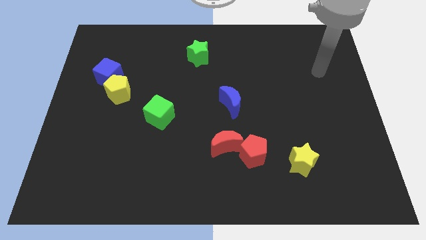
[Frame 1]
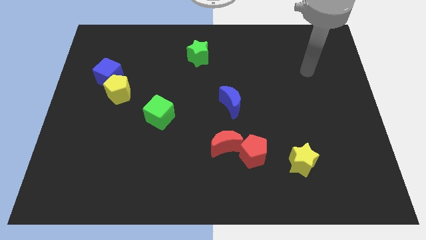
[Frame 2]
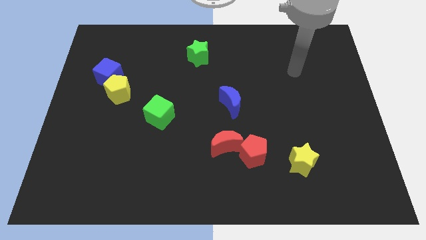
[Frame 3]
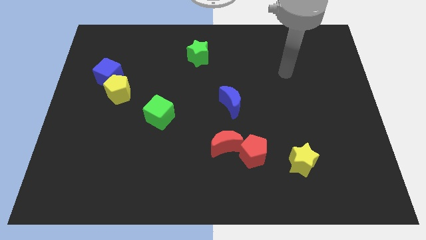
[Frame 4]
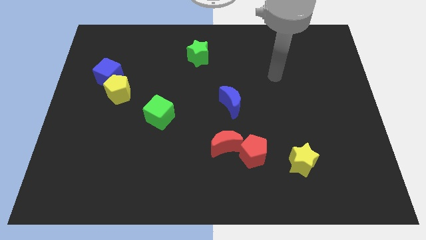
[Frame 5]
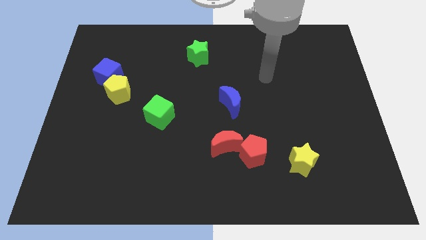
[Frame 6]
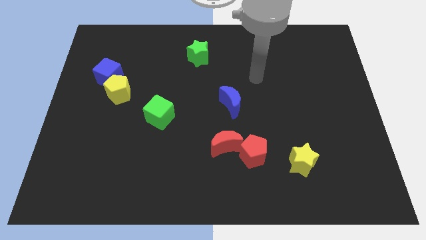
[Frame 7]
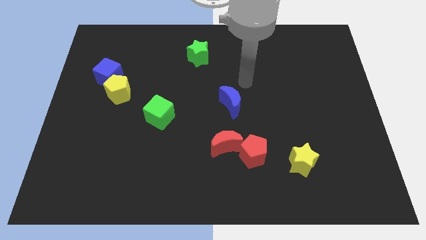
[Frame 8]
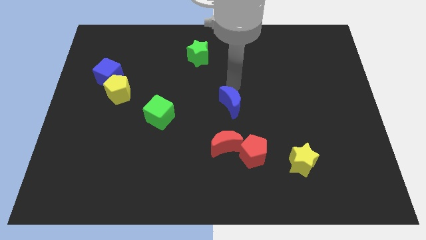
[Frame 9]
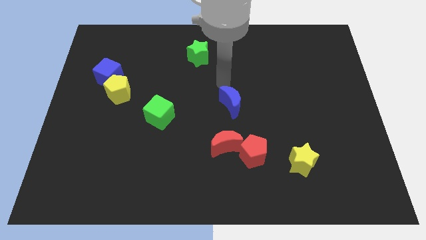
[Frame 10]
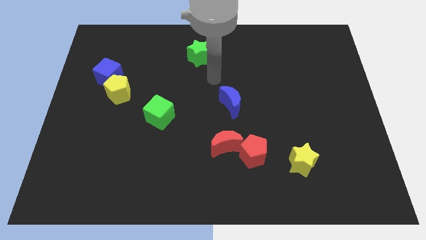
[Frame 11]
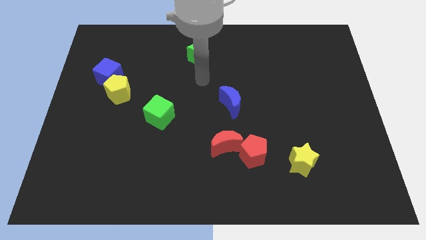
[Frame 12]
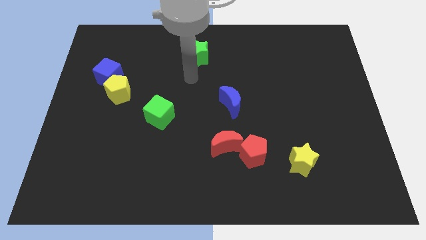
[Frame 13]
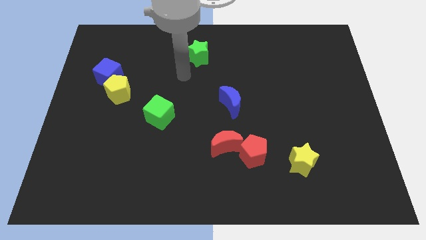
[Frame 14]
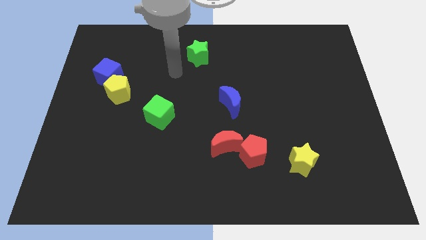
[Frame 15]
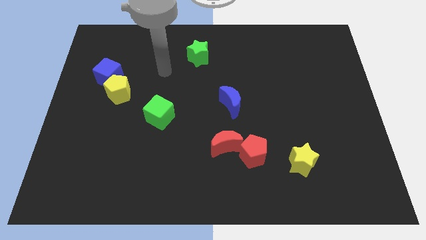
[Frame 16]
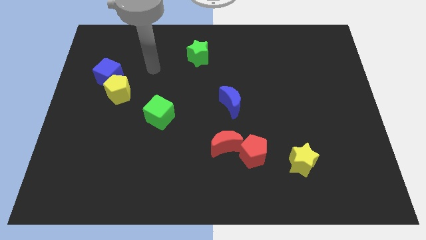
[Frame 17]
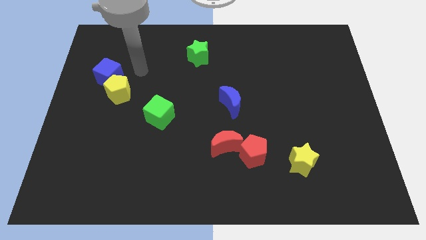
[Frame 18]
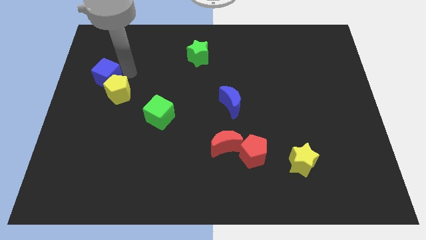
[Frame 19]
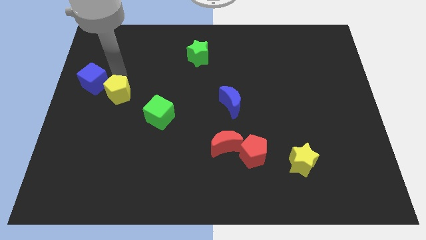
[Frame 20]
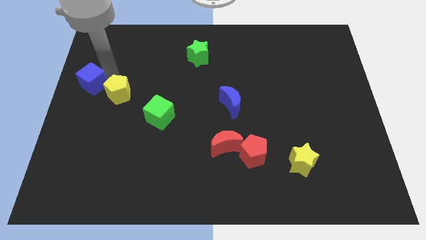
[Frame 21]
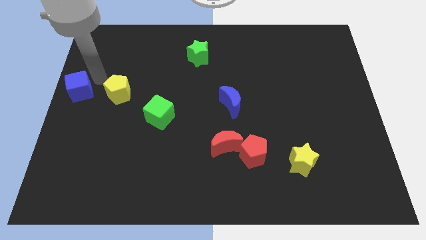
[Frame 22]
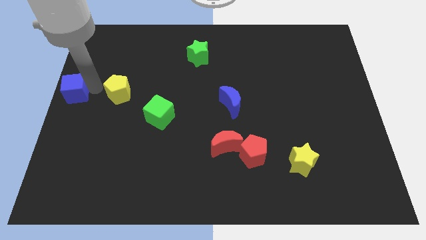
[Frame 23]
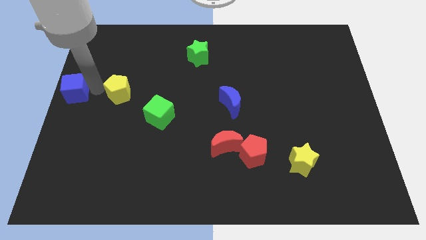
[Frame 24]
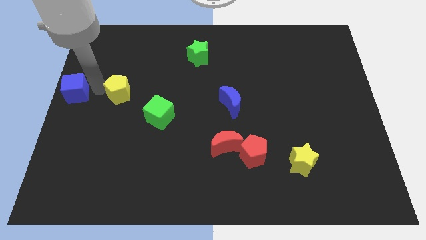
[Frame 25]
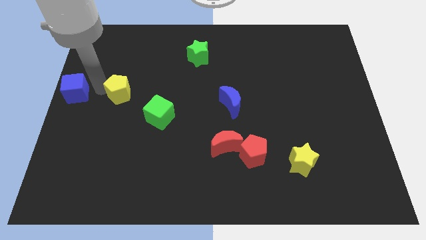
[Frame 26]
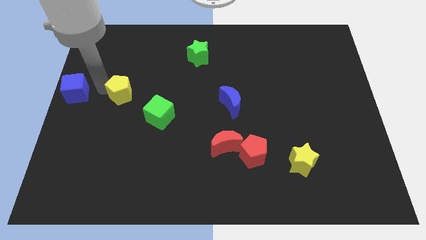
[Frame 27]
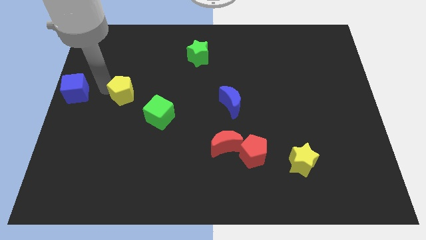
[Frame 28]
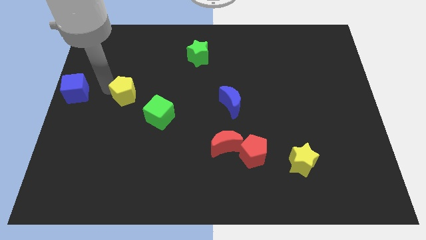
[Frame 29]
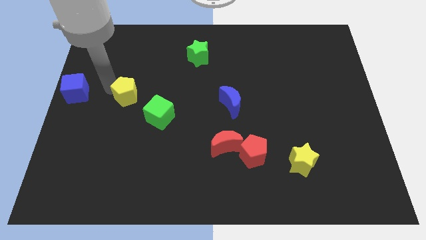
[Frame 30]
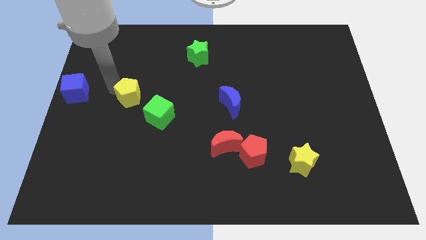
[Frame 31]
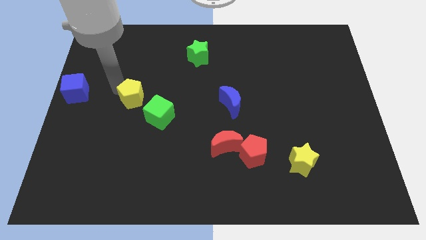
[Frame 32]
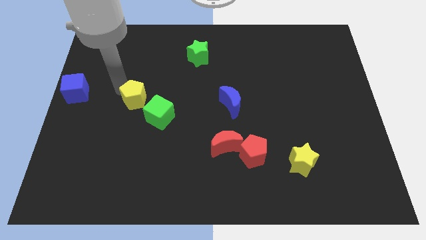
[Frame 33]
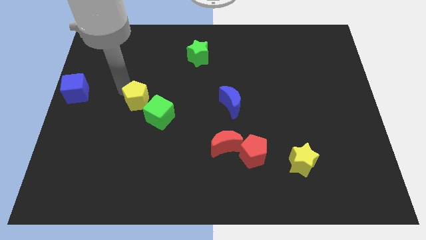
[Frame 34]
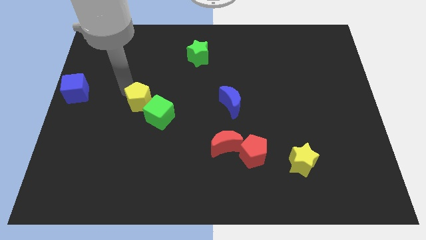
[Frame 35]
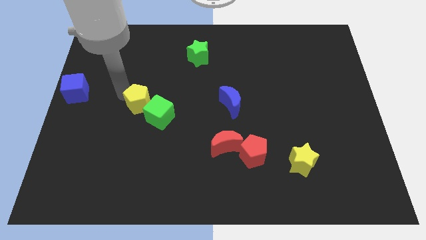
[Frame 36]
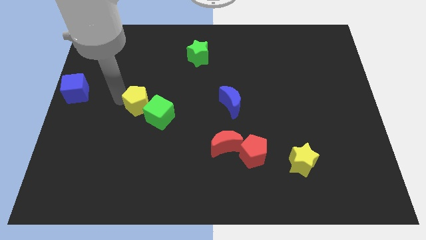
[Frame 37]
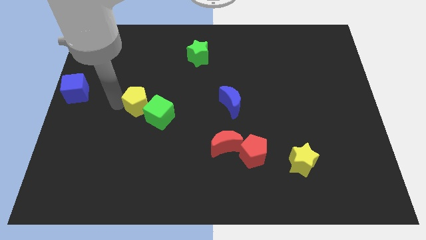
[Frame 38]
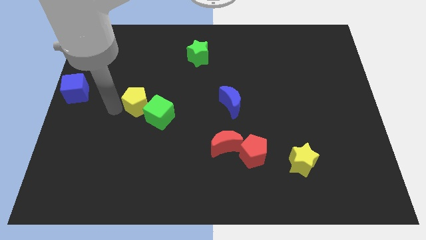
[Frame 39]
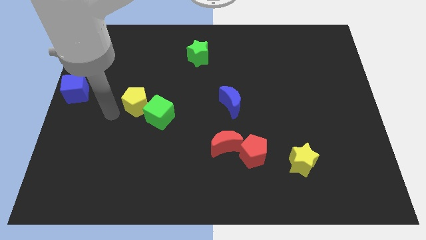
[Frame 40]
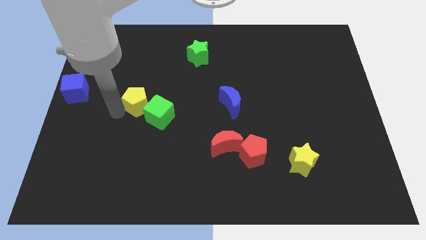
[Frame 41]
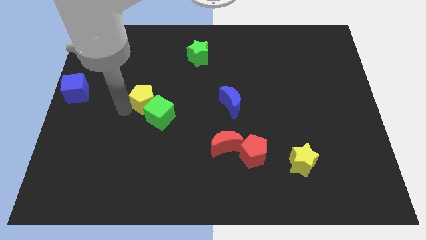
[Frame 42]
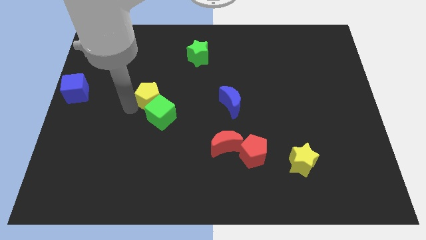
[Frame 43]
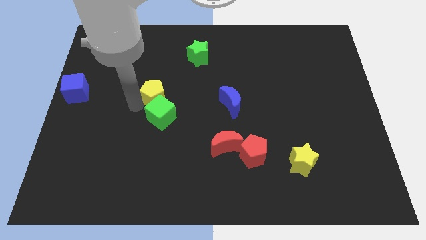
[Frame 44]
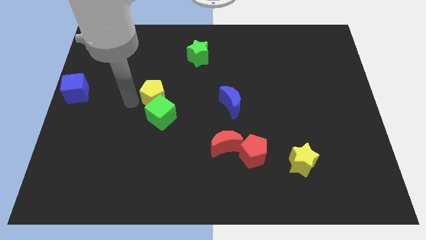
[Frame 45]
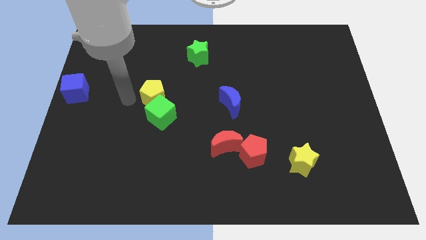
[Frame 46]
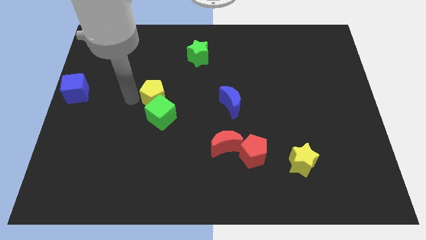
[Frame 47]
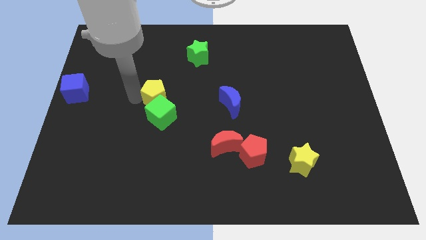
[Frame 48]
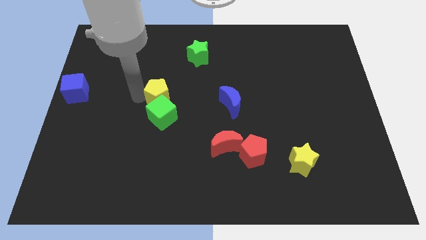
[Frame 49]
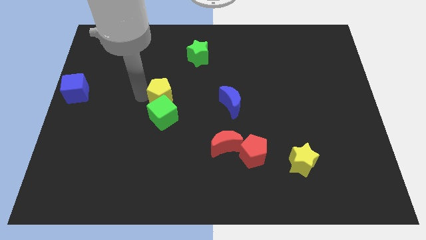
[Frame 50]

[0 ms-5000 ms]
slide the yellow pentagon to the center

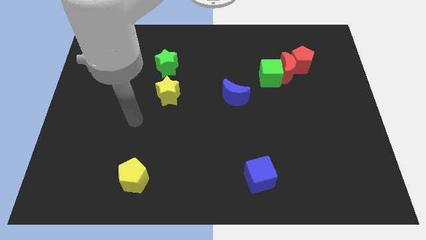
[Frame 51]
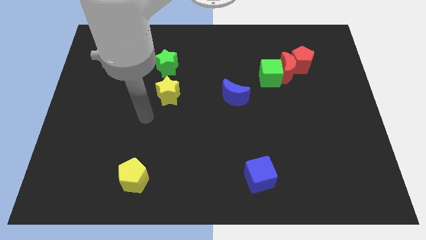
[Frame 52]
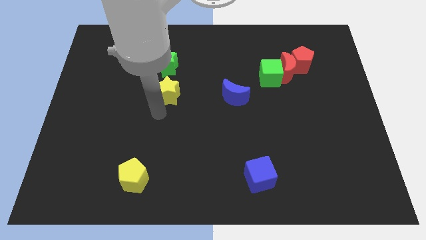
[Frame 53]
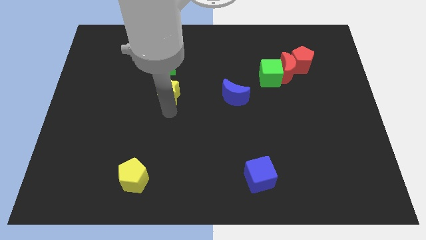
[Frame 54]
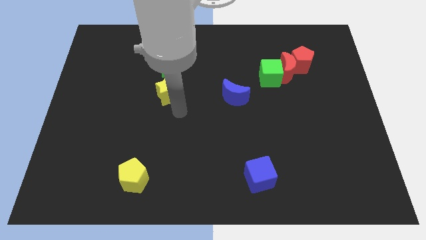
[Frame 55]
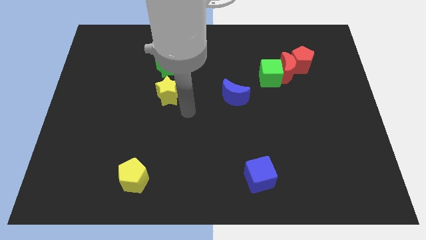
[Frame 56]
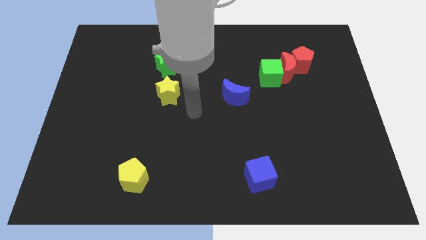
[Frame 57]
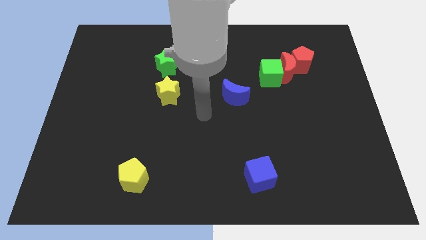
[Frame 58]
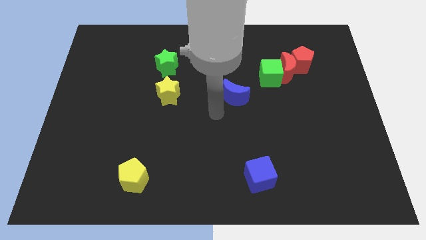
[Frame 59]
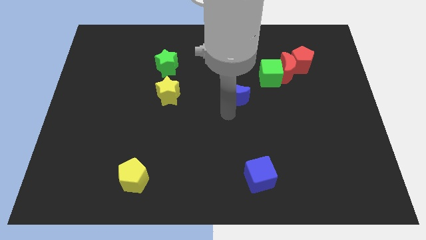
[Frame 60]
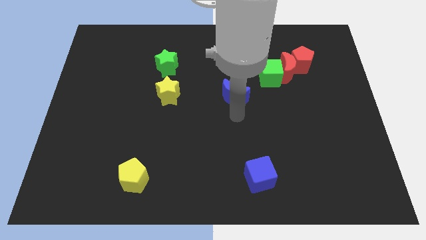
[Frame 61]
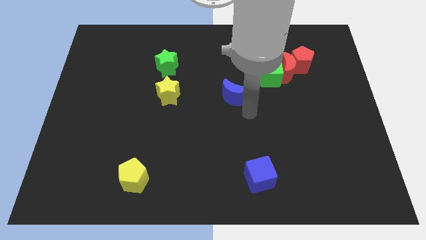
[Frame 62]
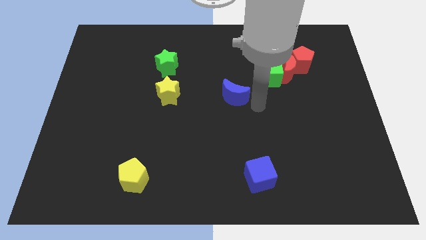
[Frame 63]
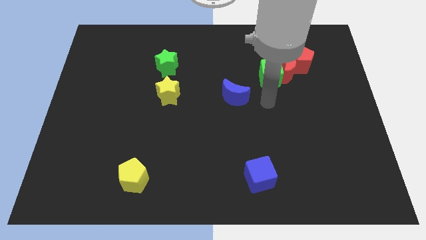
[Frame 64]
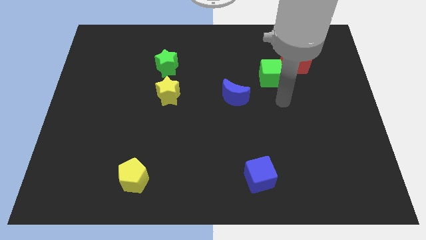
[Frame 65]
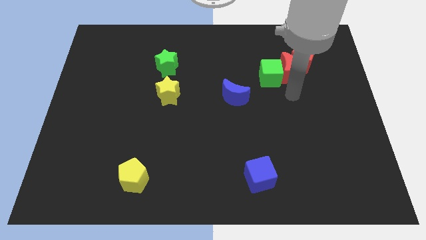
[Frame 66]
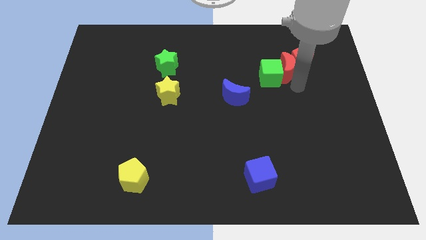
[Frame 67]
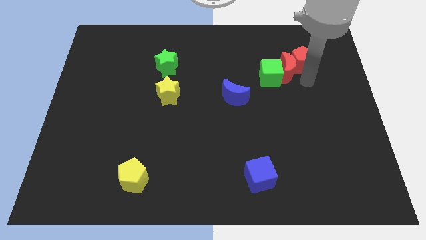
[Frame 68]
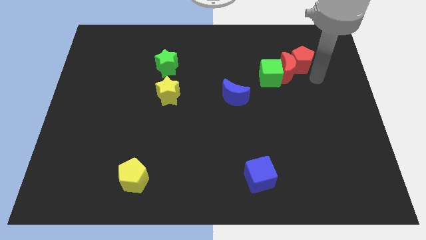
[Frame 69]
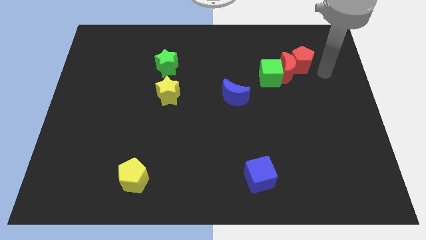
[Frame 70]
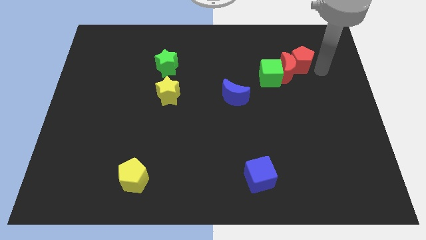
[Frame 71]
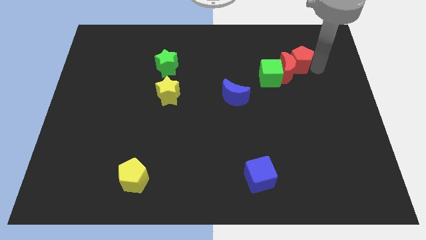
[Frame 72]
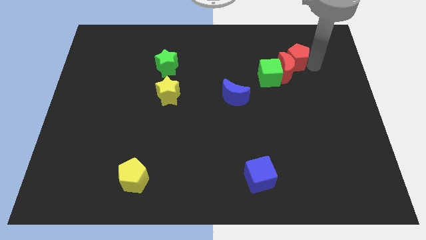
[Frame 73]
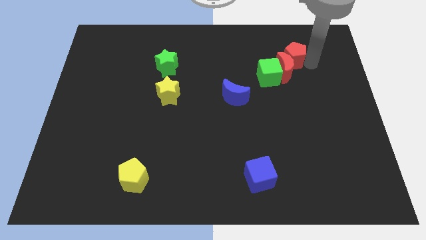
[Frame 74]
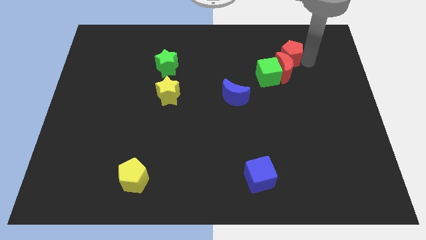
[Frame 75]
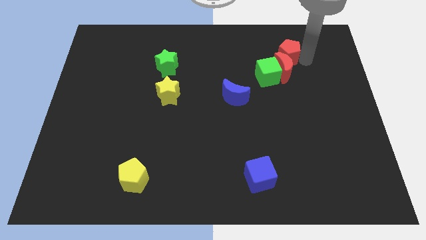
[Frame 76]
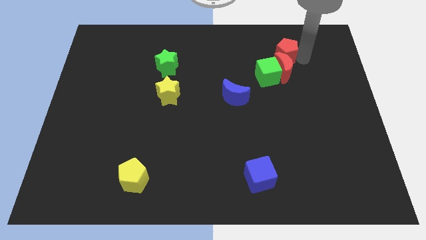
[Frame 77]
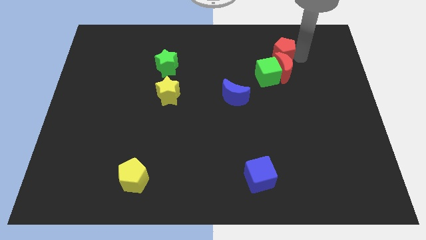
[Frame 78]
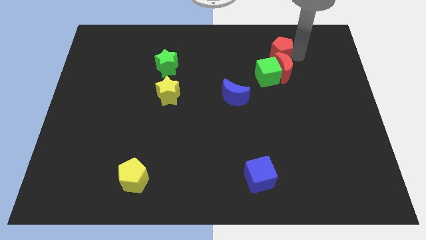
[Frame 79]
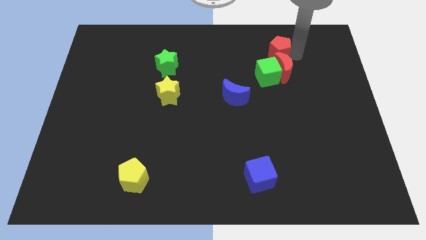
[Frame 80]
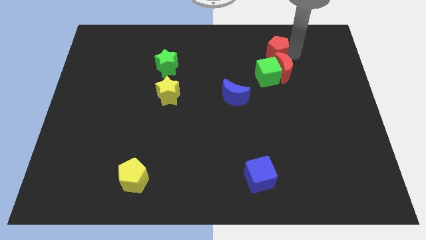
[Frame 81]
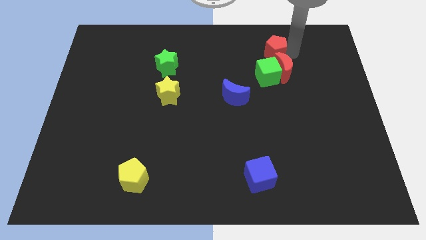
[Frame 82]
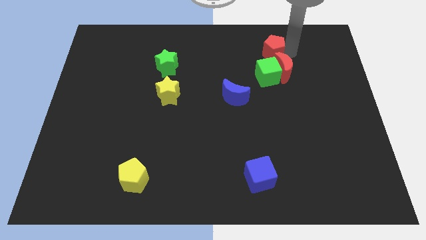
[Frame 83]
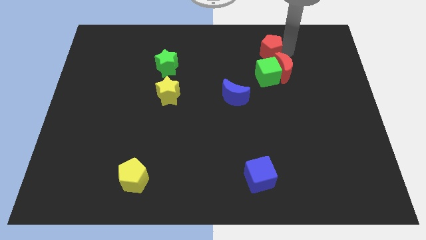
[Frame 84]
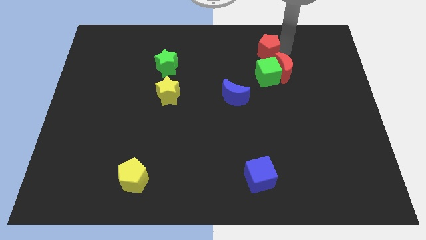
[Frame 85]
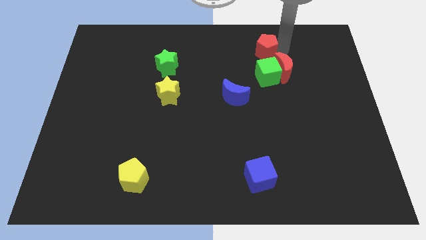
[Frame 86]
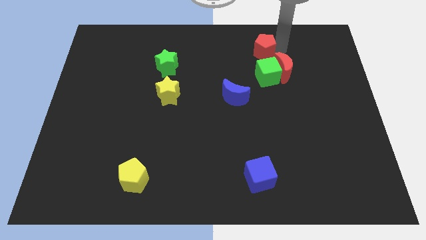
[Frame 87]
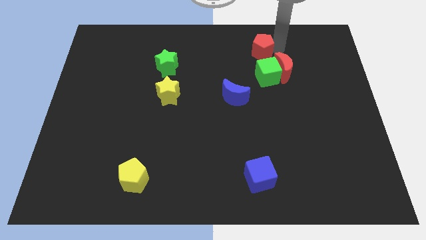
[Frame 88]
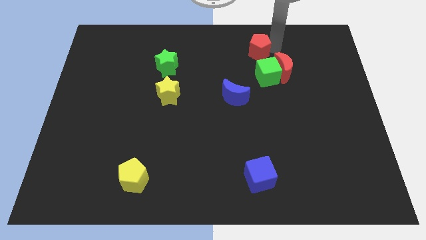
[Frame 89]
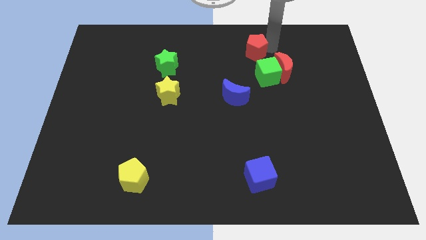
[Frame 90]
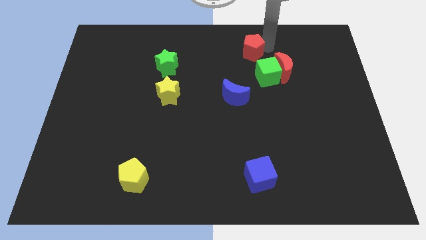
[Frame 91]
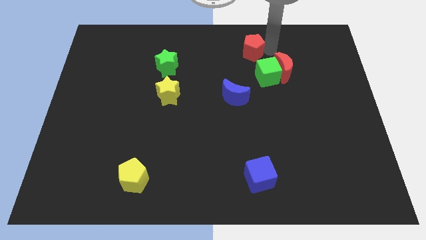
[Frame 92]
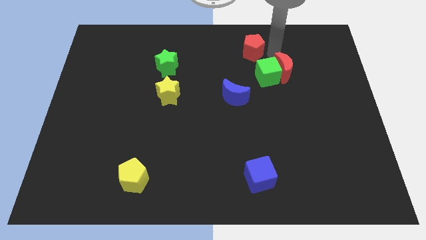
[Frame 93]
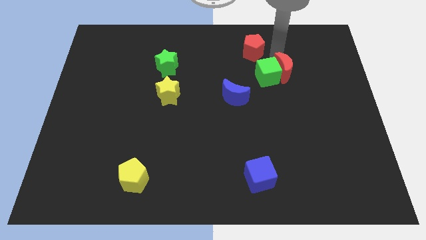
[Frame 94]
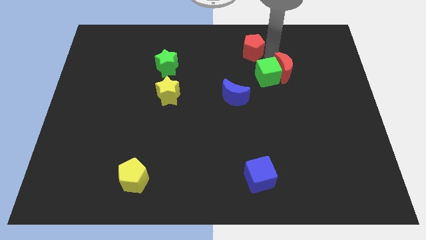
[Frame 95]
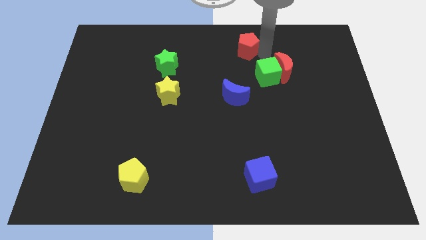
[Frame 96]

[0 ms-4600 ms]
push the red pentagon to the towards your base
